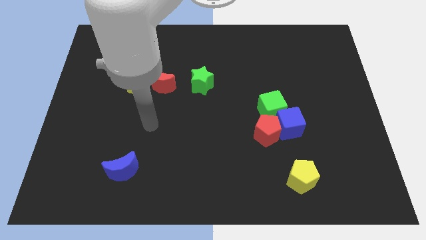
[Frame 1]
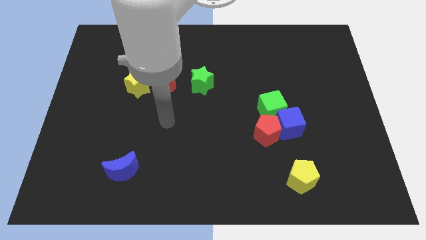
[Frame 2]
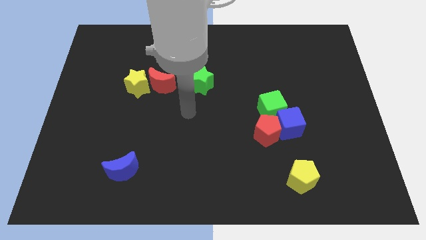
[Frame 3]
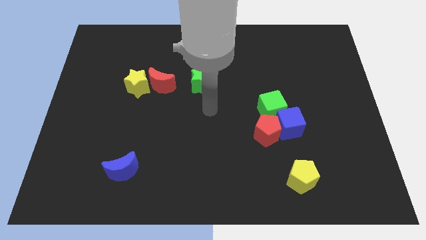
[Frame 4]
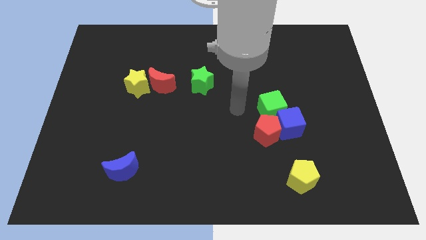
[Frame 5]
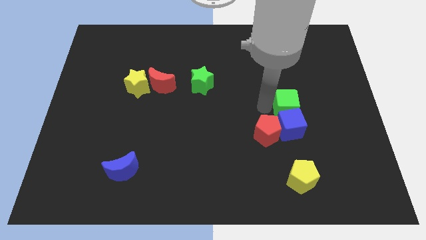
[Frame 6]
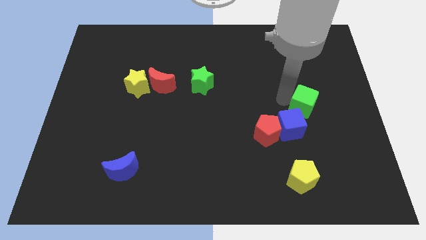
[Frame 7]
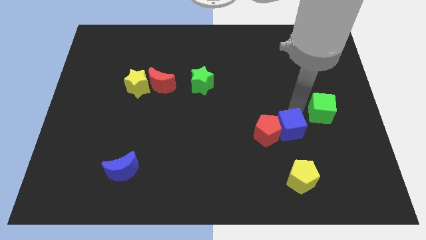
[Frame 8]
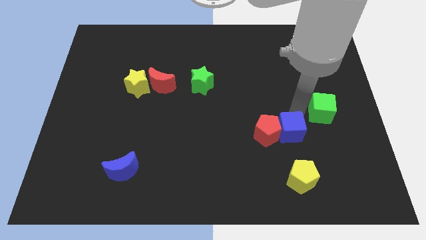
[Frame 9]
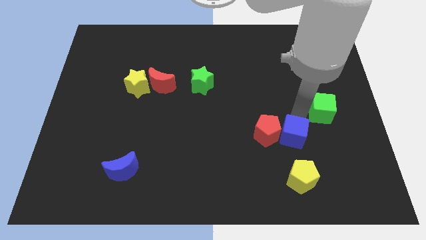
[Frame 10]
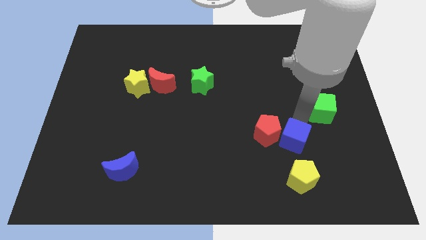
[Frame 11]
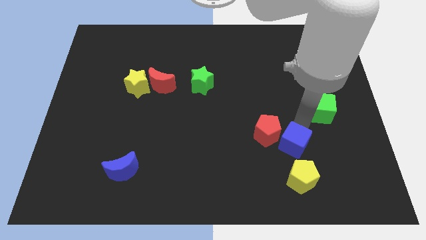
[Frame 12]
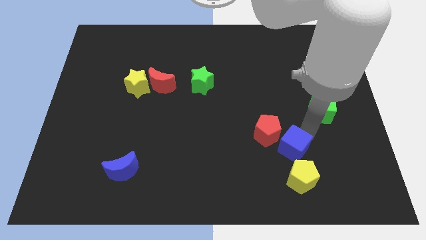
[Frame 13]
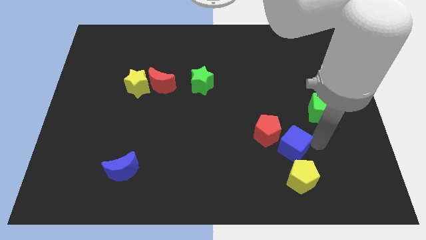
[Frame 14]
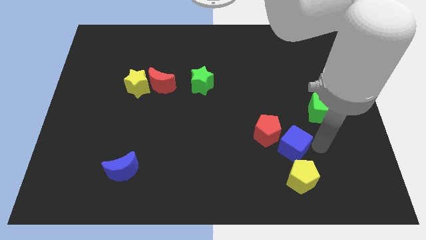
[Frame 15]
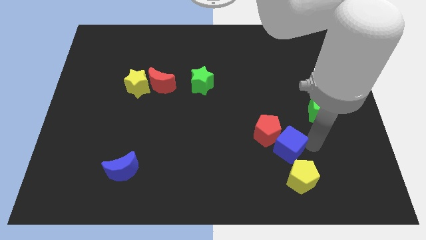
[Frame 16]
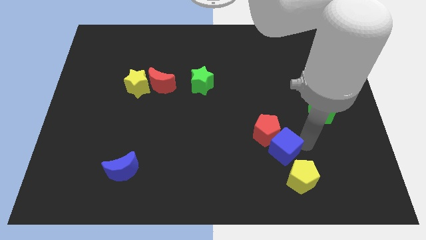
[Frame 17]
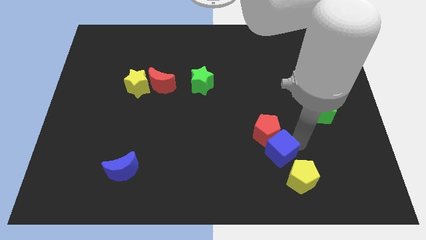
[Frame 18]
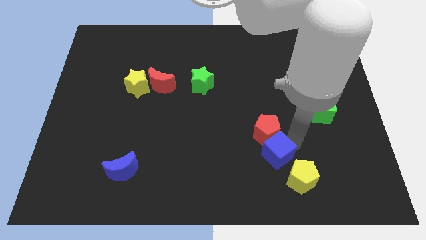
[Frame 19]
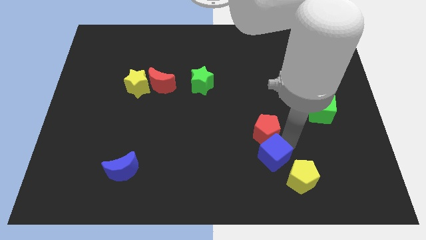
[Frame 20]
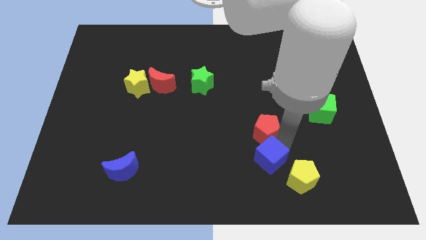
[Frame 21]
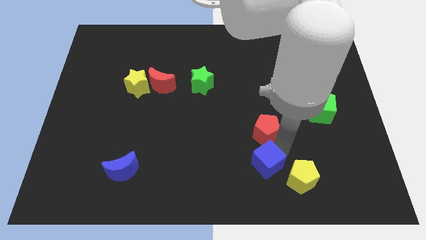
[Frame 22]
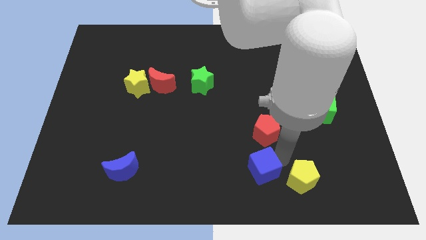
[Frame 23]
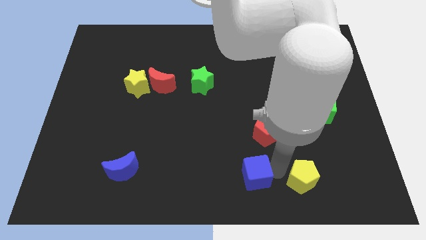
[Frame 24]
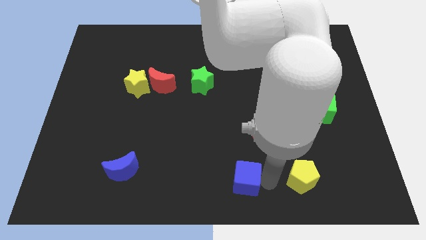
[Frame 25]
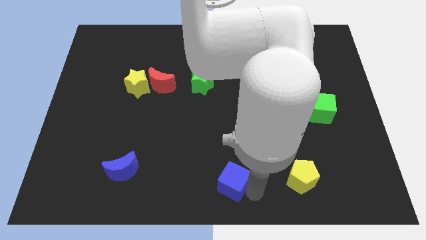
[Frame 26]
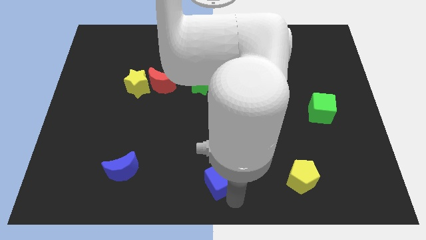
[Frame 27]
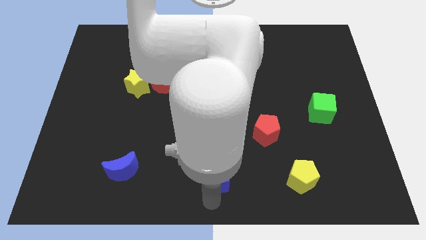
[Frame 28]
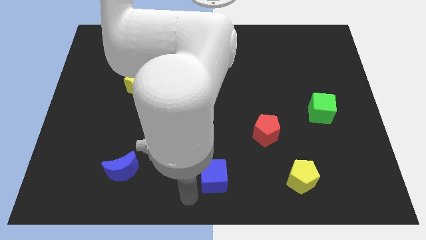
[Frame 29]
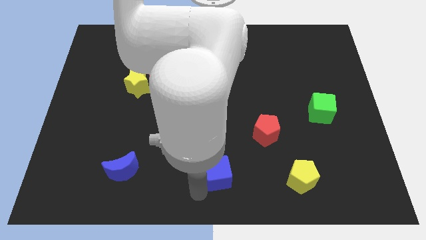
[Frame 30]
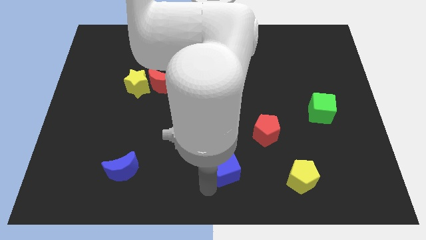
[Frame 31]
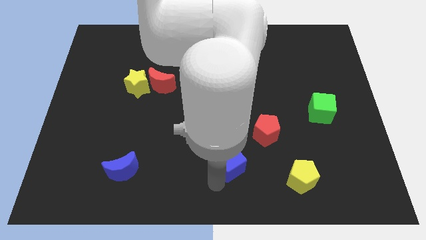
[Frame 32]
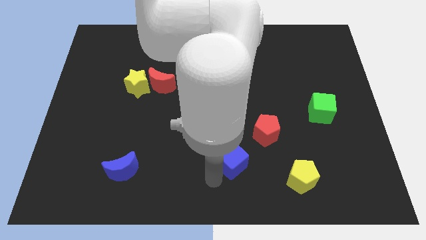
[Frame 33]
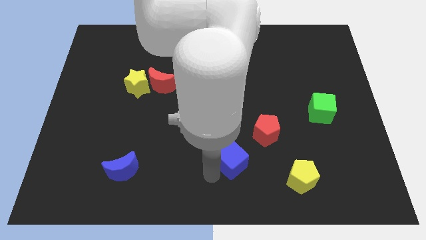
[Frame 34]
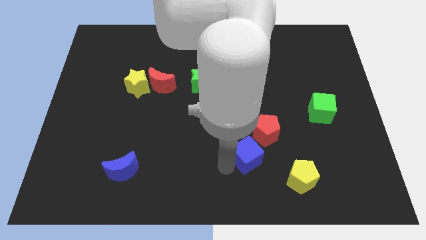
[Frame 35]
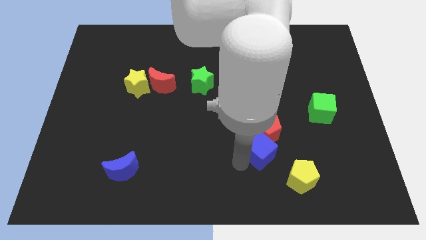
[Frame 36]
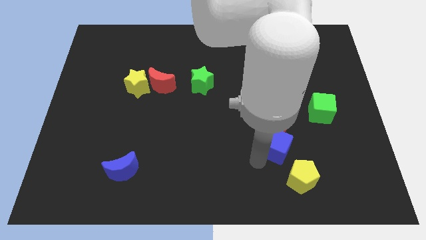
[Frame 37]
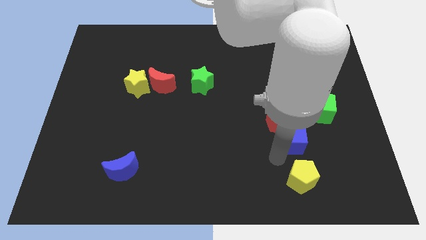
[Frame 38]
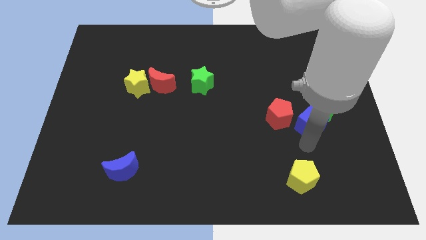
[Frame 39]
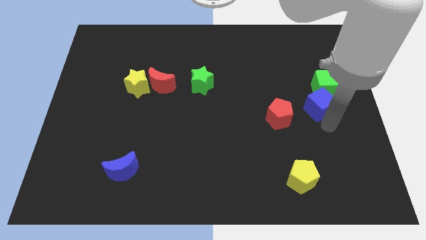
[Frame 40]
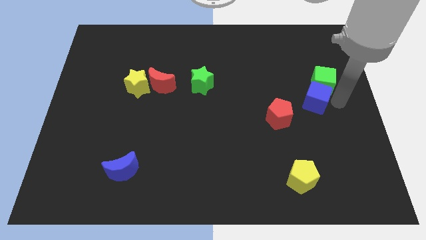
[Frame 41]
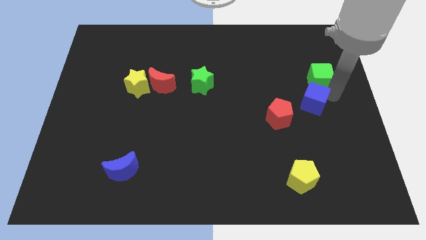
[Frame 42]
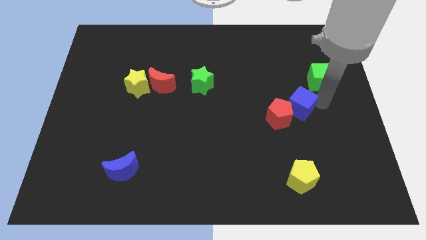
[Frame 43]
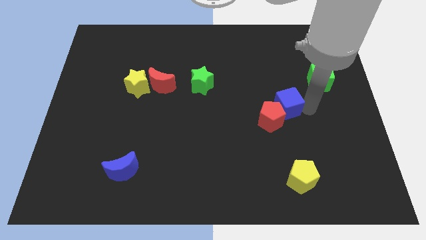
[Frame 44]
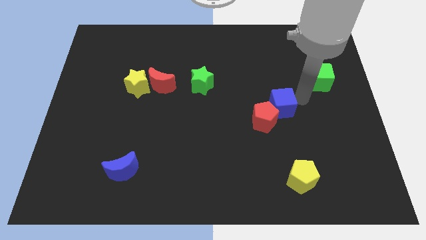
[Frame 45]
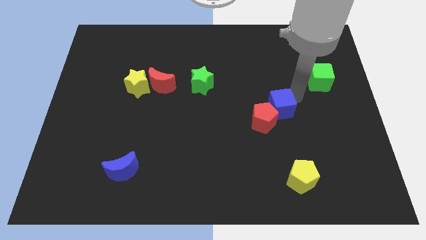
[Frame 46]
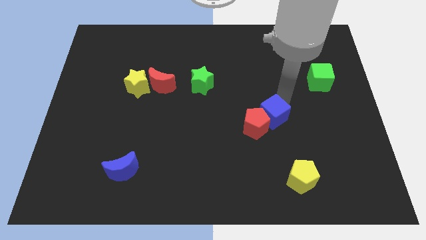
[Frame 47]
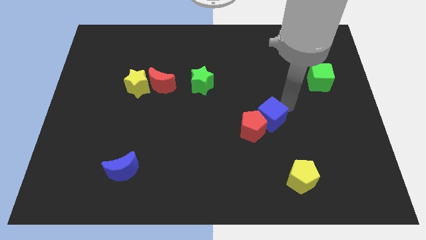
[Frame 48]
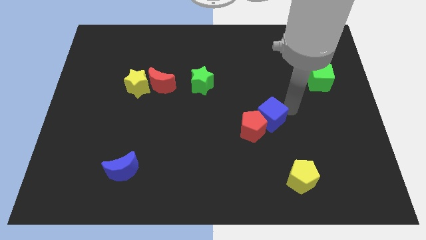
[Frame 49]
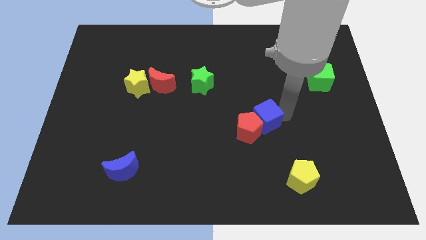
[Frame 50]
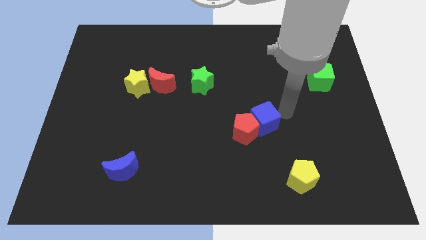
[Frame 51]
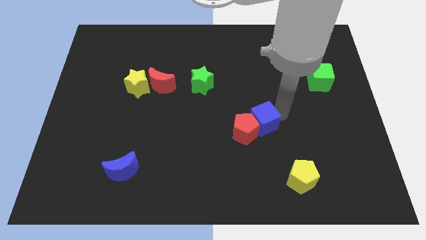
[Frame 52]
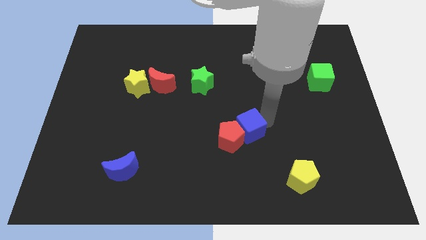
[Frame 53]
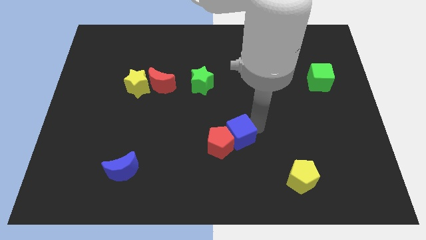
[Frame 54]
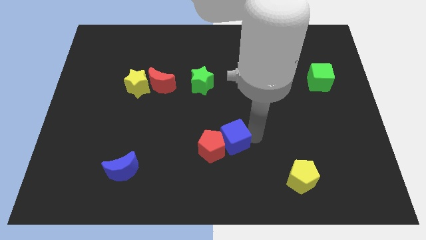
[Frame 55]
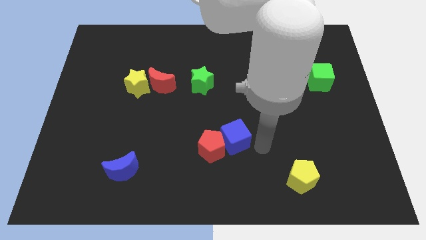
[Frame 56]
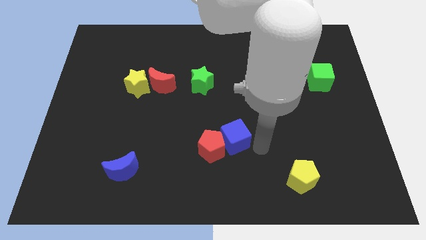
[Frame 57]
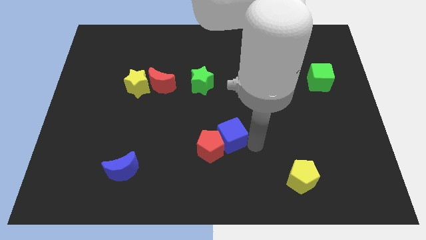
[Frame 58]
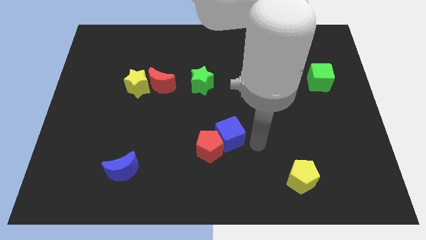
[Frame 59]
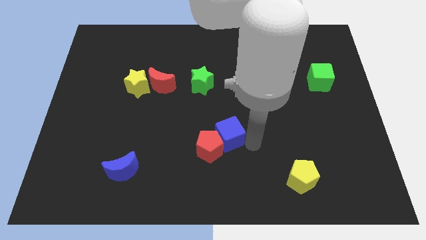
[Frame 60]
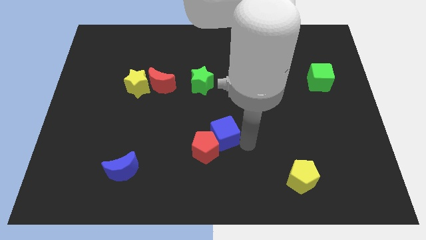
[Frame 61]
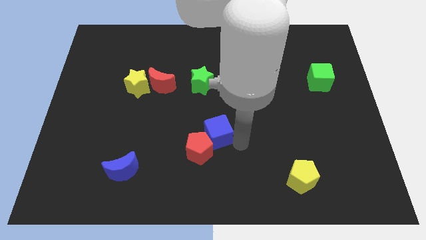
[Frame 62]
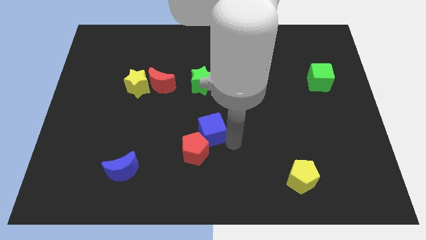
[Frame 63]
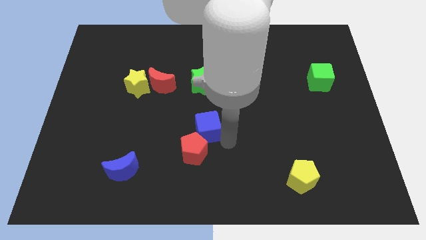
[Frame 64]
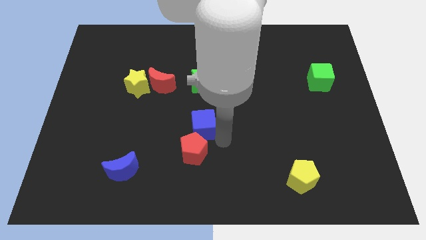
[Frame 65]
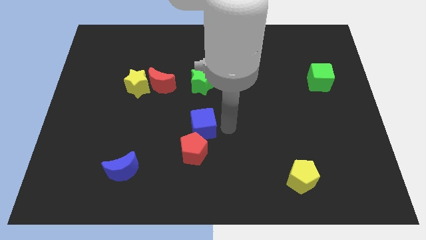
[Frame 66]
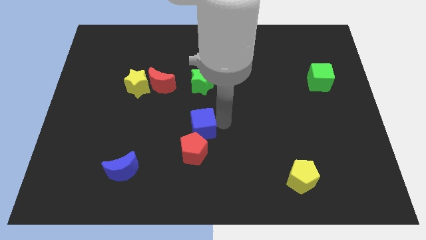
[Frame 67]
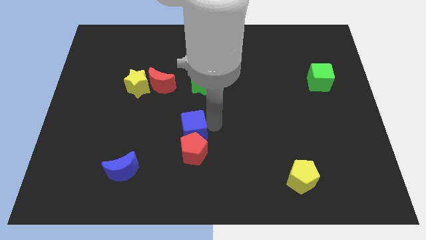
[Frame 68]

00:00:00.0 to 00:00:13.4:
move the blue cube left

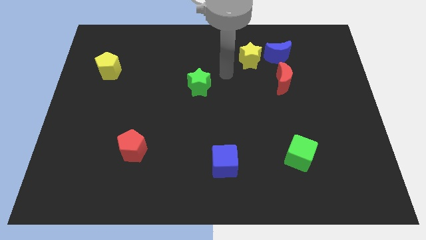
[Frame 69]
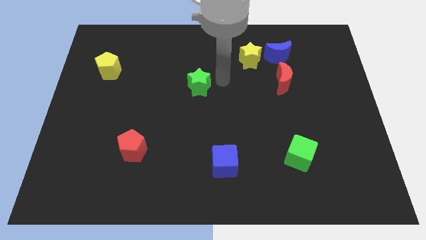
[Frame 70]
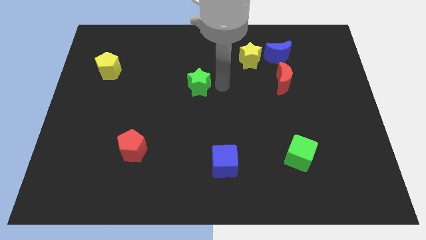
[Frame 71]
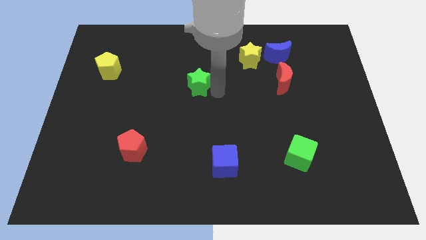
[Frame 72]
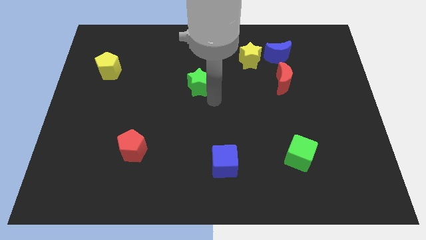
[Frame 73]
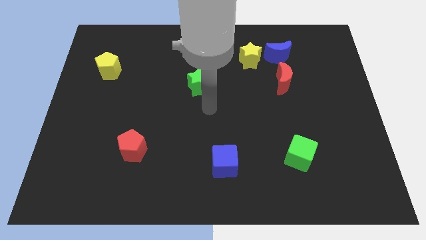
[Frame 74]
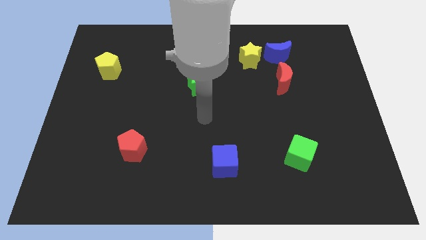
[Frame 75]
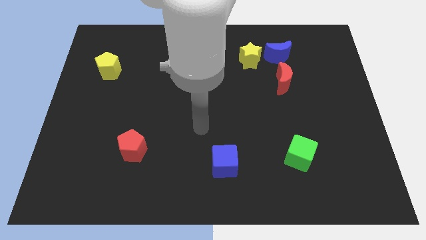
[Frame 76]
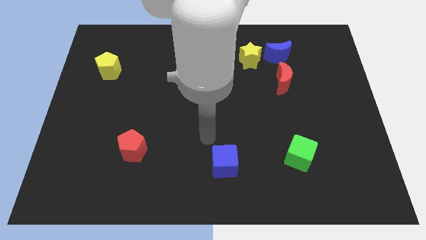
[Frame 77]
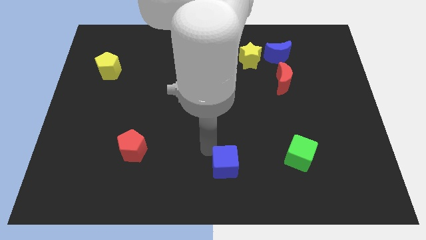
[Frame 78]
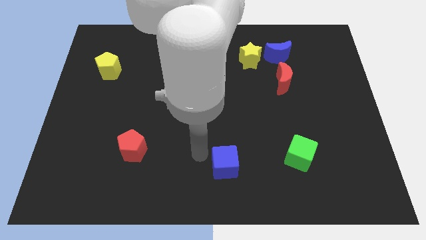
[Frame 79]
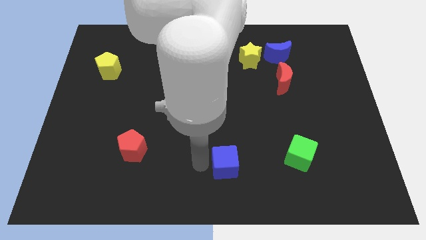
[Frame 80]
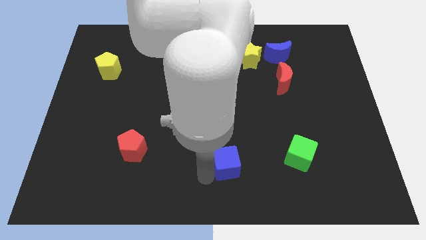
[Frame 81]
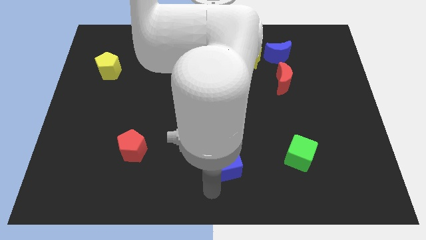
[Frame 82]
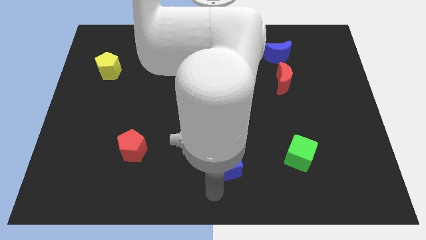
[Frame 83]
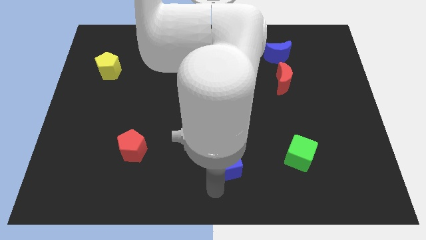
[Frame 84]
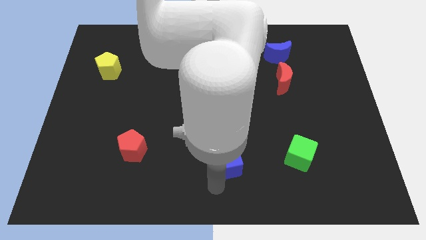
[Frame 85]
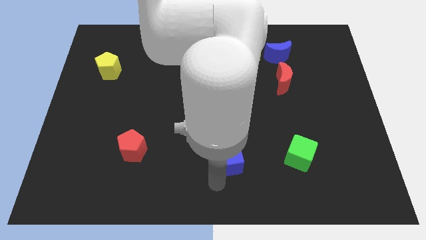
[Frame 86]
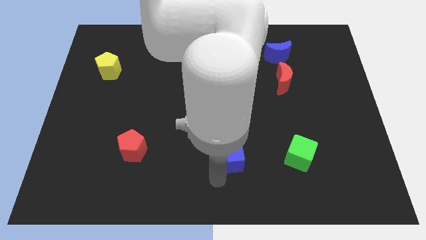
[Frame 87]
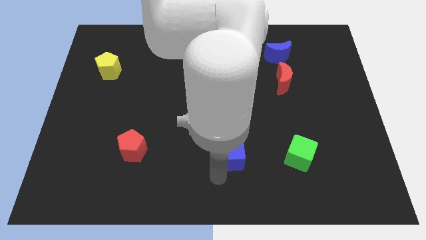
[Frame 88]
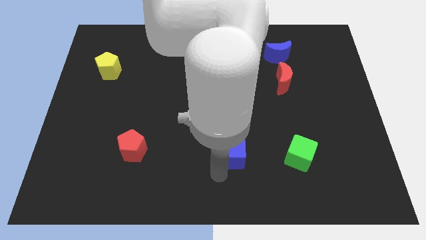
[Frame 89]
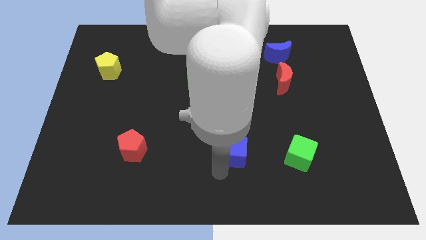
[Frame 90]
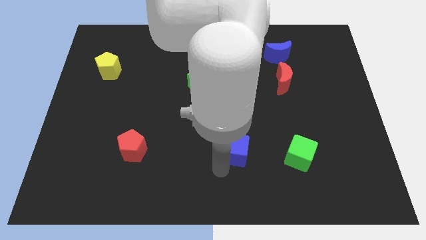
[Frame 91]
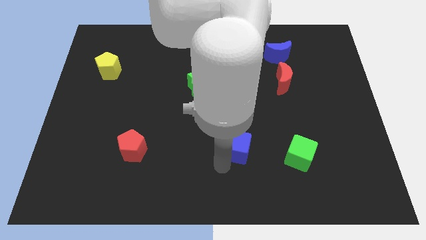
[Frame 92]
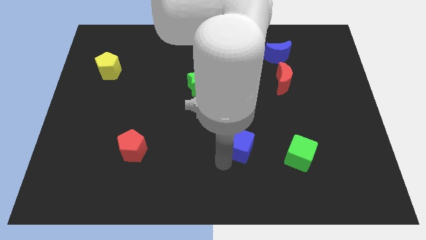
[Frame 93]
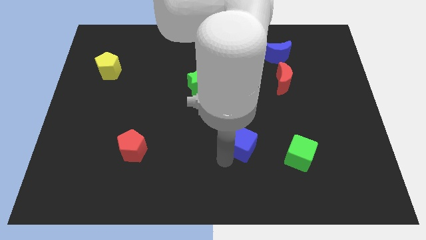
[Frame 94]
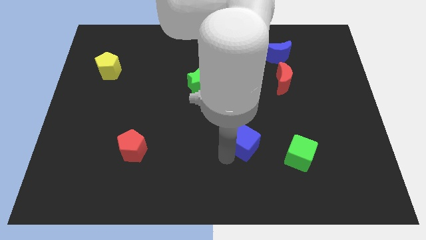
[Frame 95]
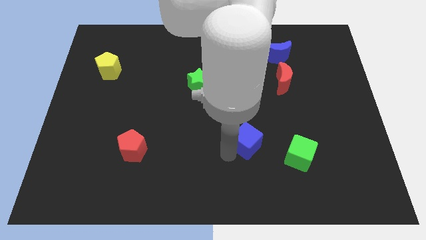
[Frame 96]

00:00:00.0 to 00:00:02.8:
slightly push the blue cube diagonally upwards and right
